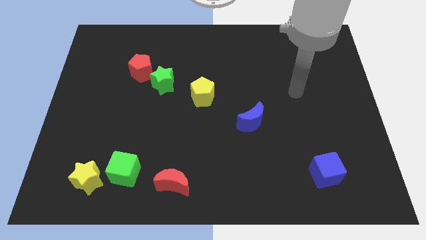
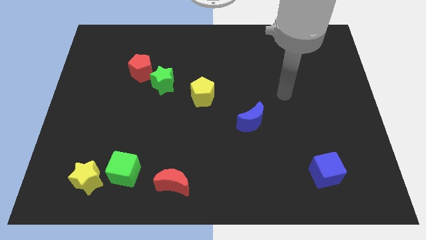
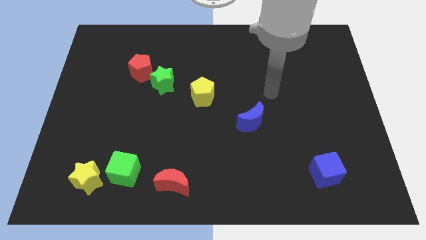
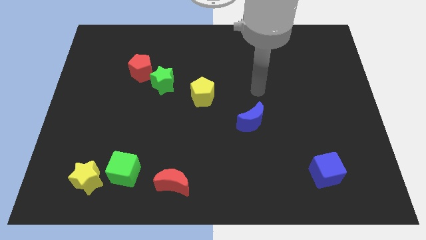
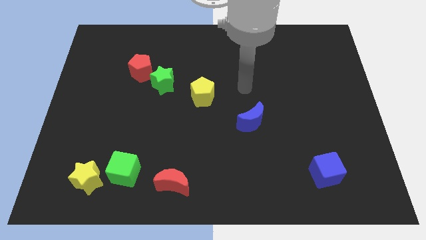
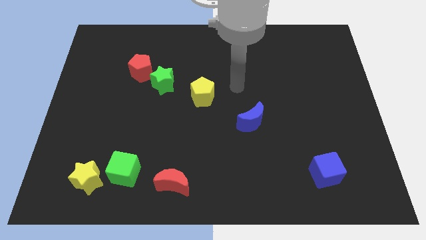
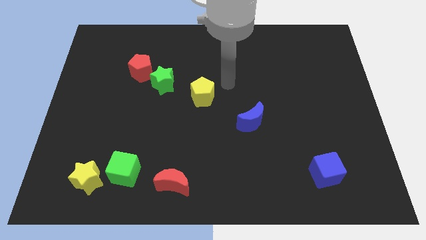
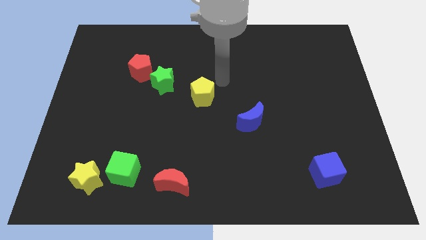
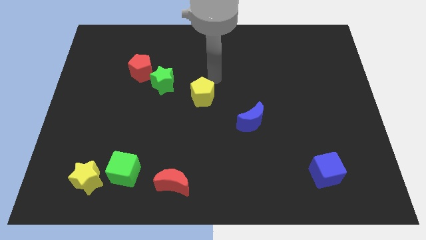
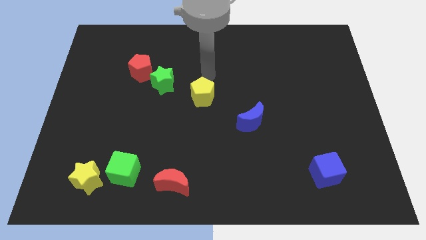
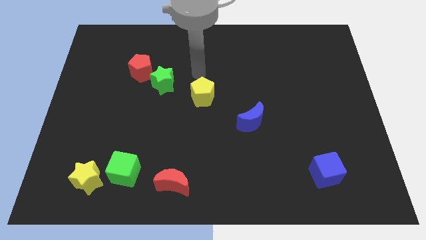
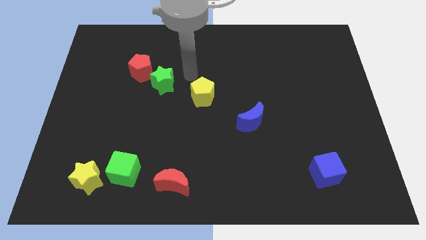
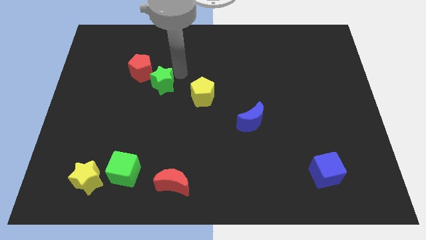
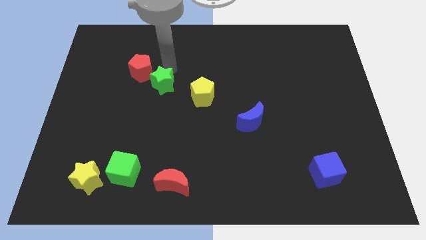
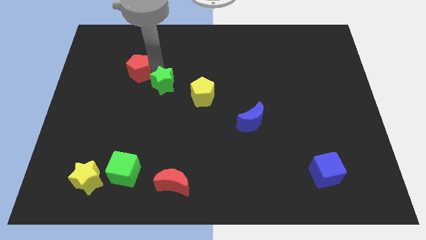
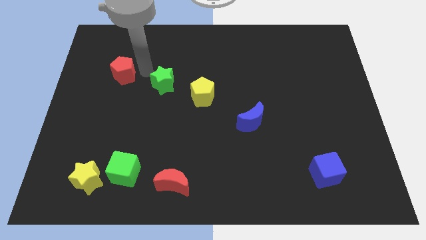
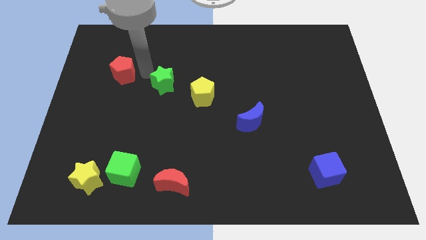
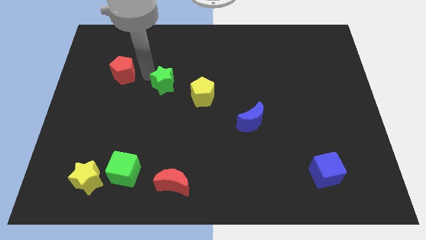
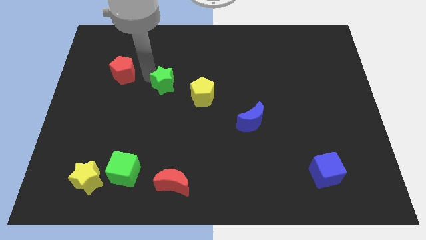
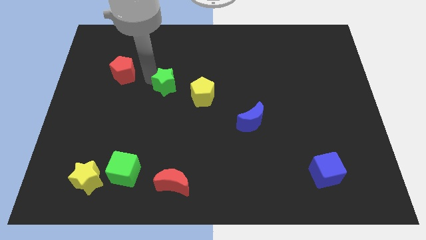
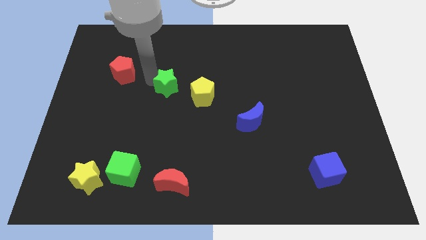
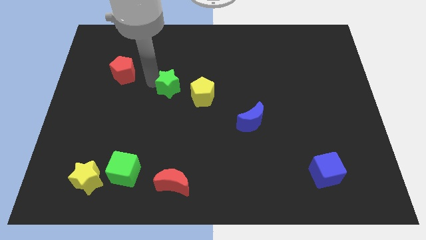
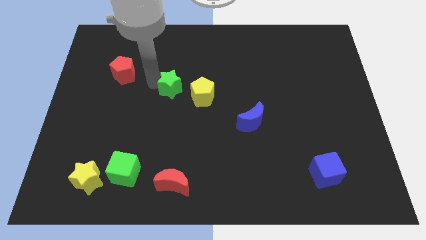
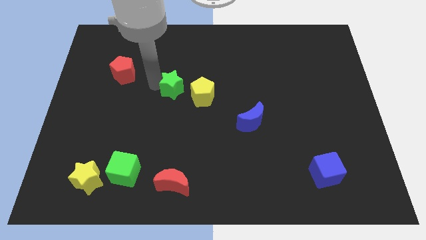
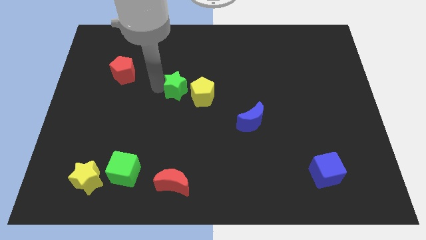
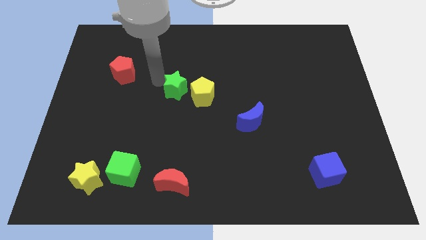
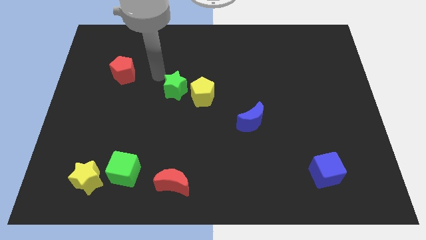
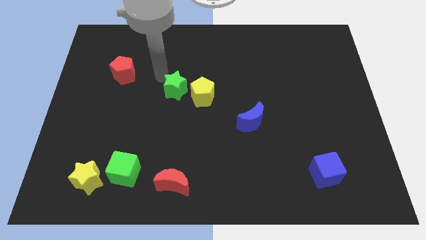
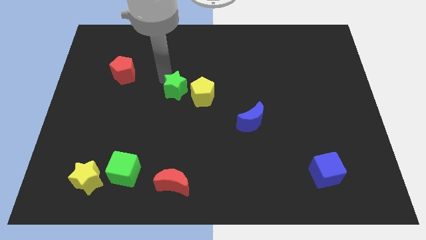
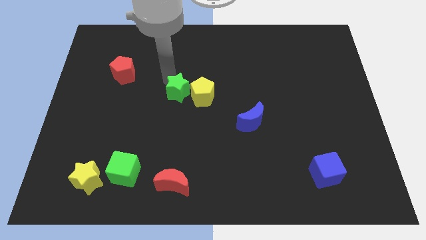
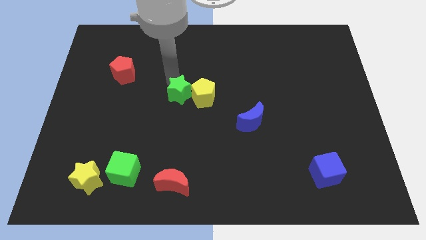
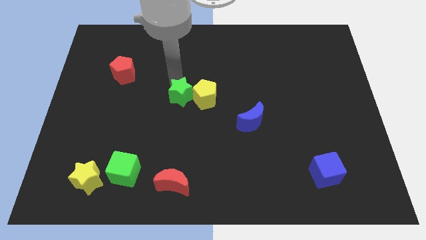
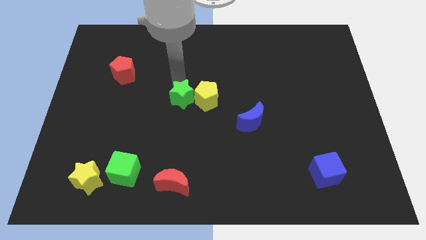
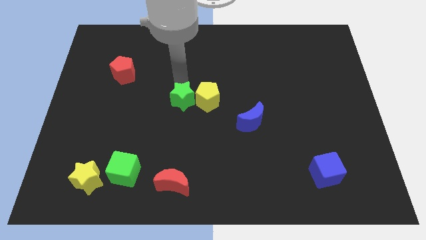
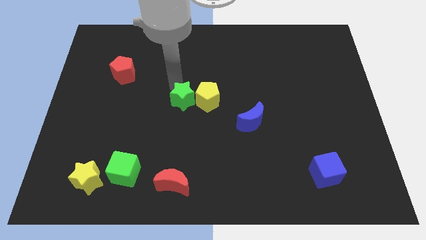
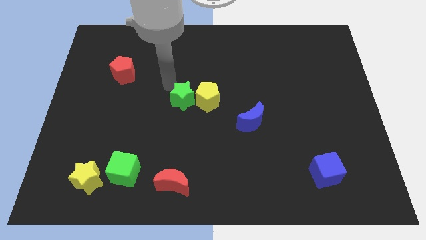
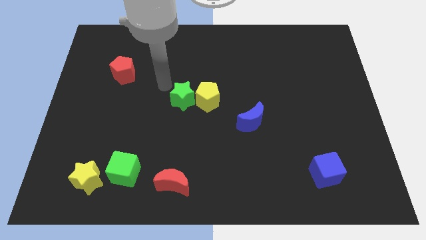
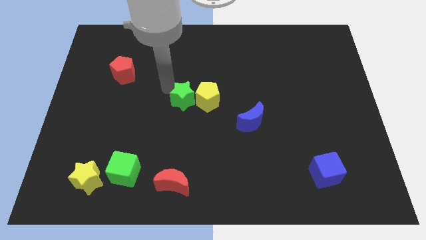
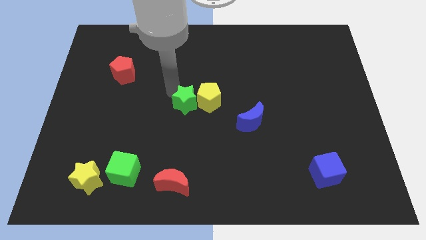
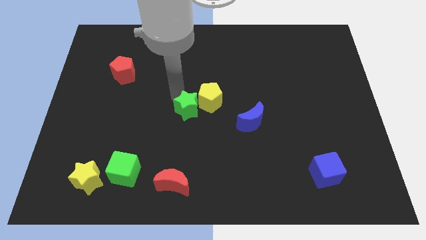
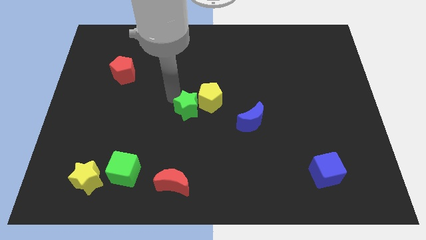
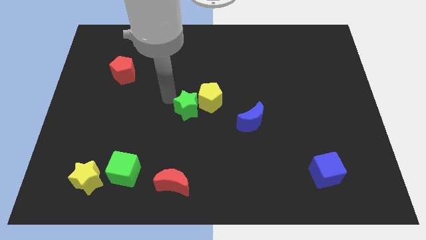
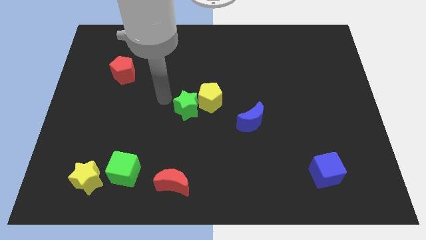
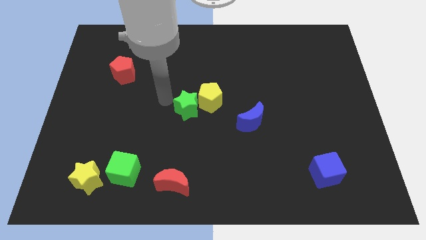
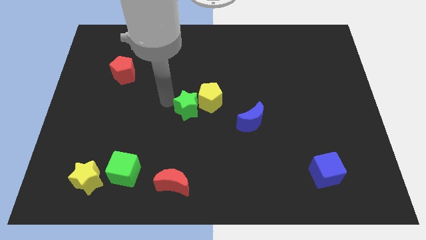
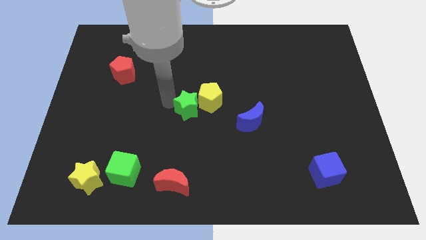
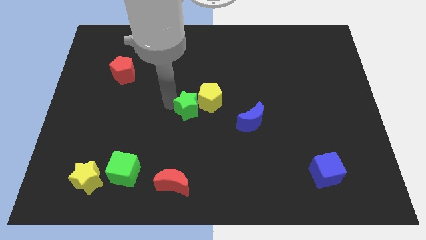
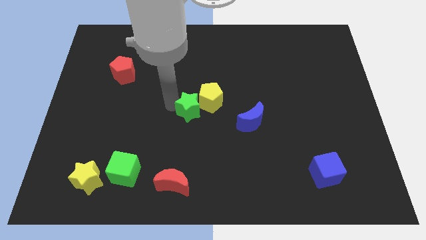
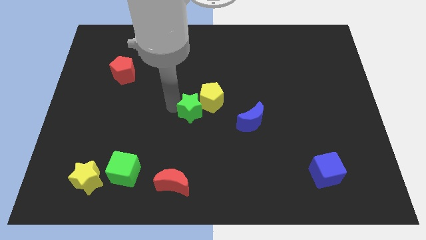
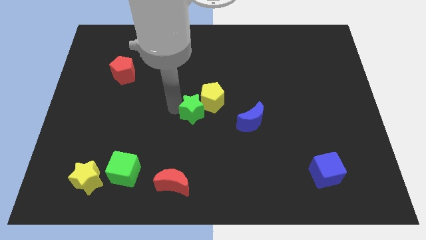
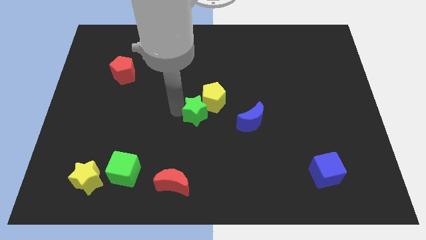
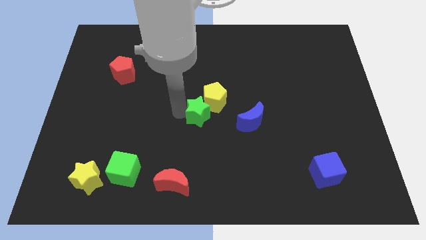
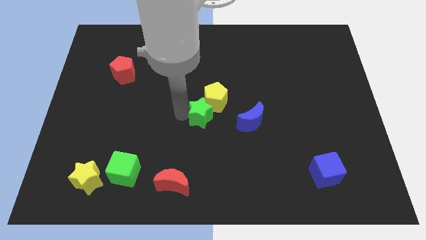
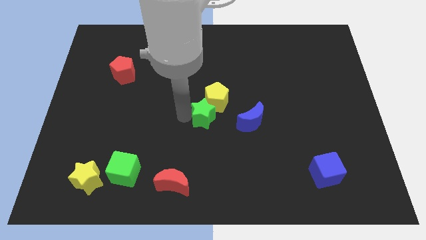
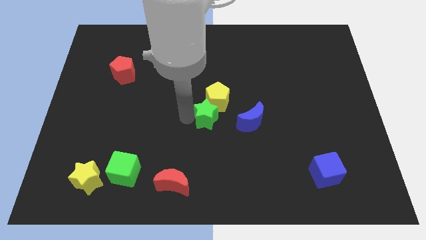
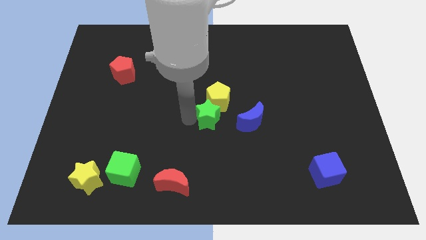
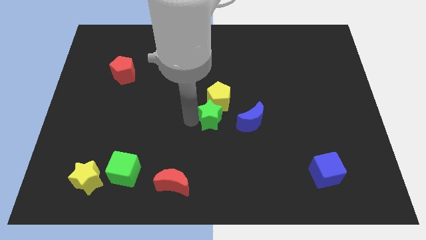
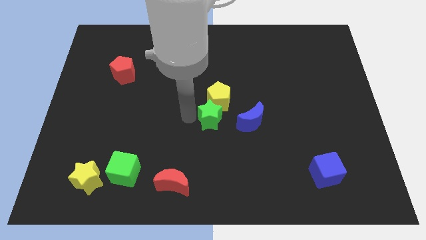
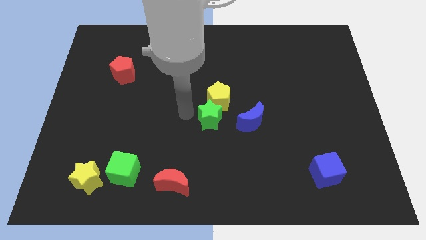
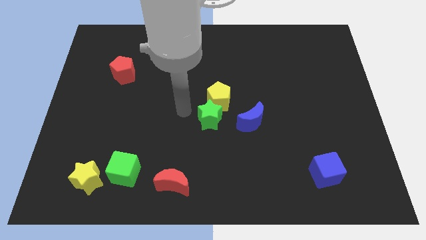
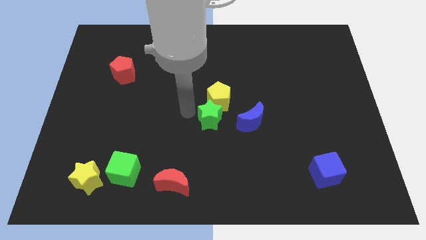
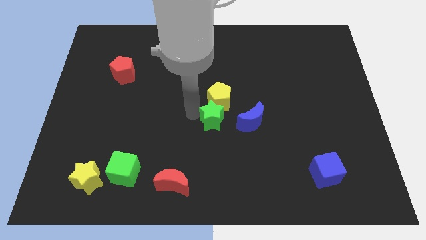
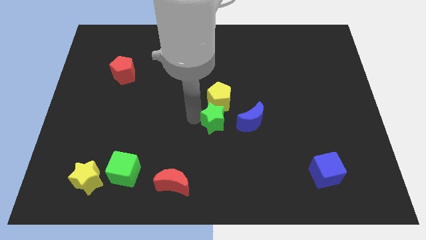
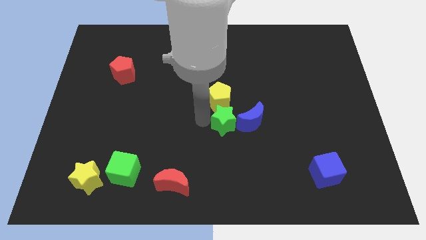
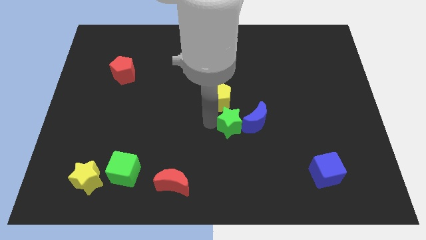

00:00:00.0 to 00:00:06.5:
slide the green star to the blue moon

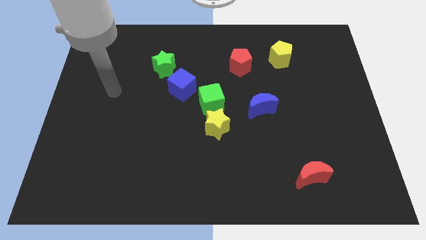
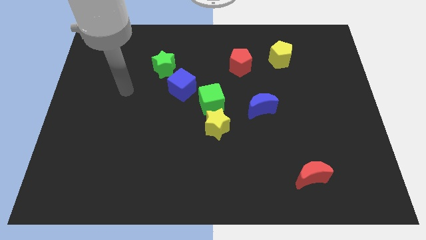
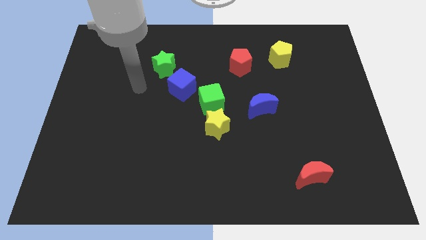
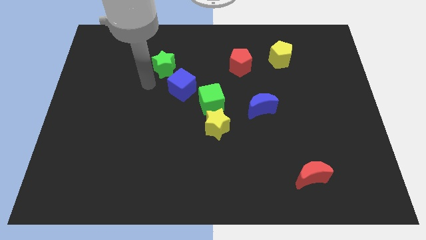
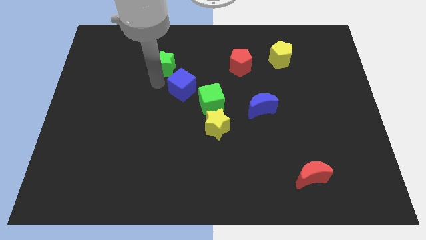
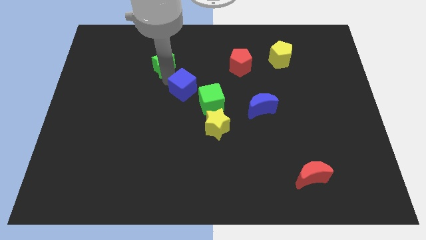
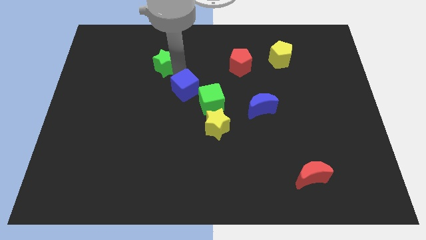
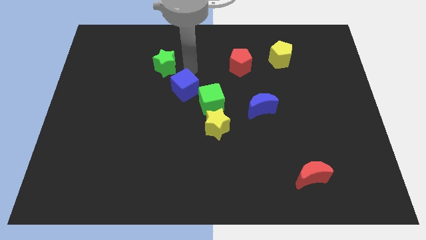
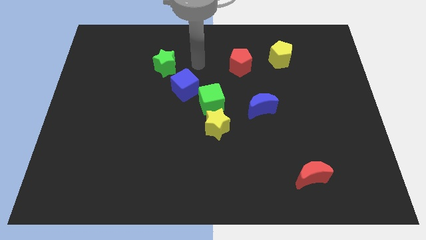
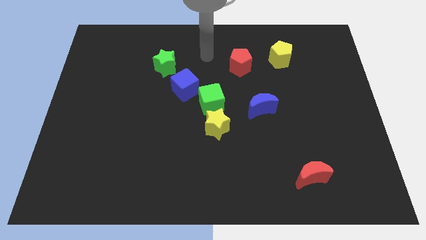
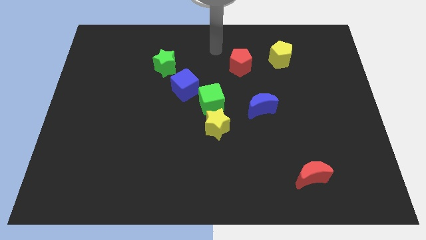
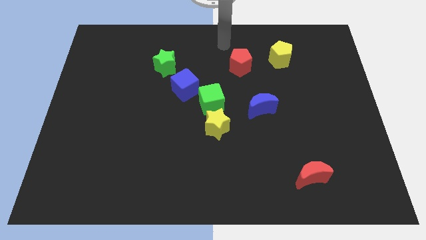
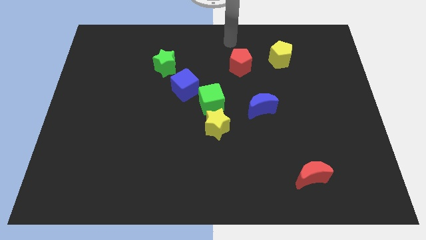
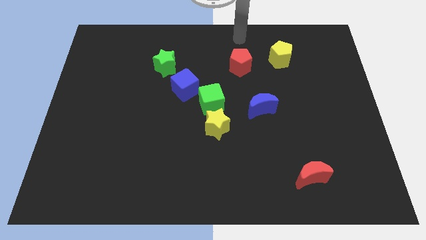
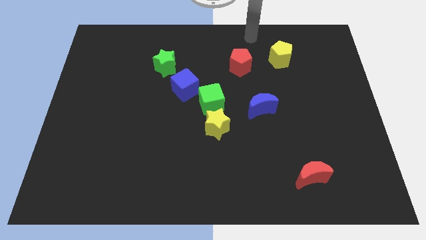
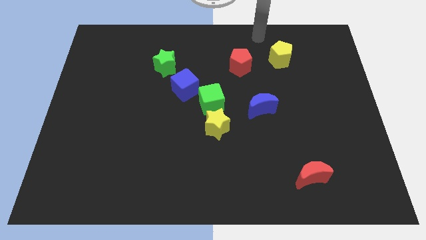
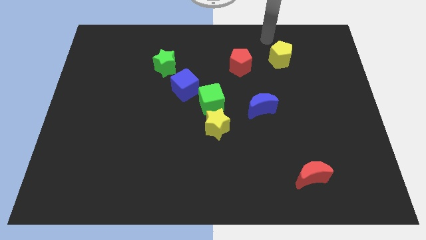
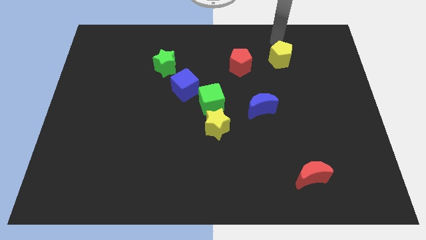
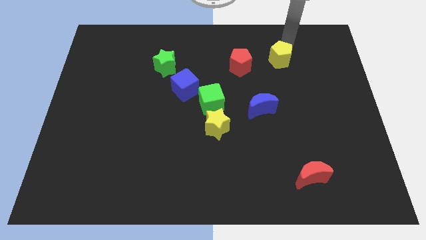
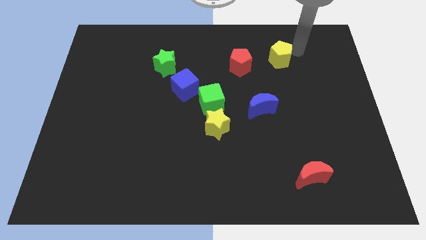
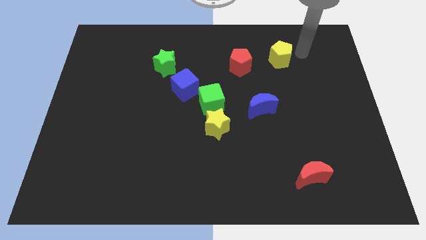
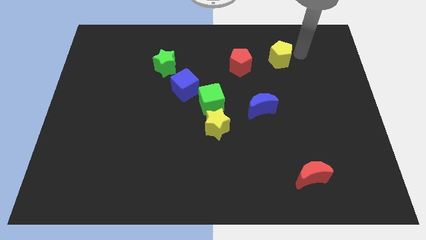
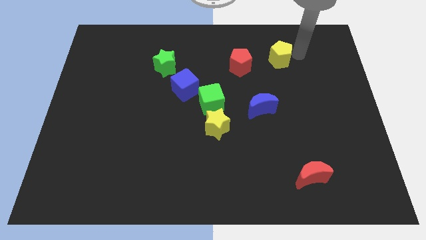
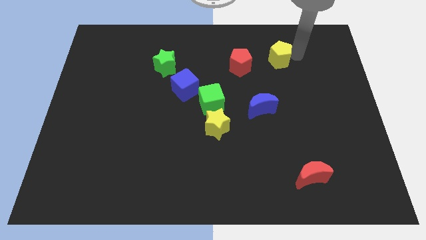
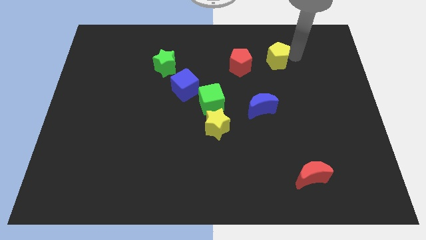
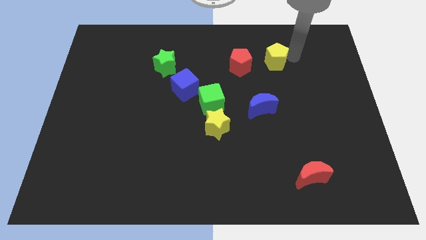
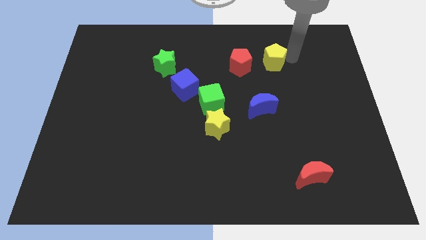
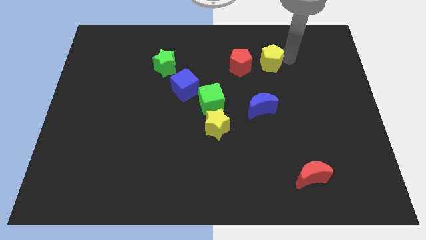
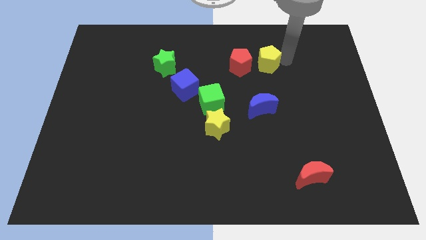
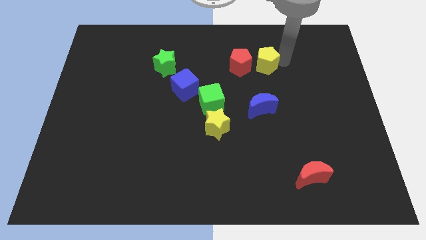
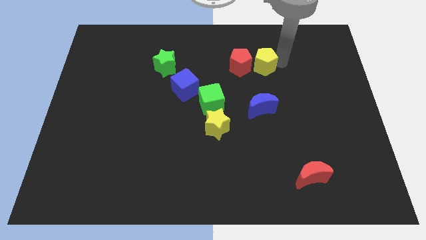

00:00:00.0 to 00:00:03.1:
move the yellow pentagon towards the red pentagon
